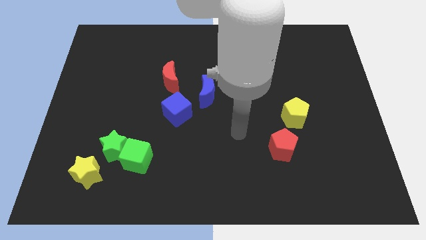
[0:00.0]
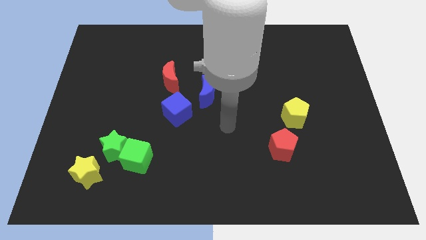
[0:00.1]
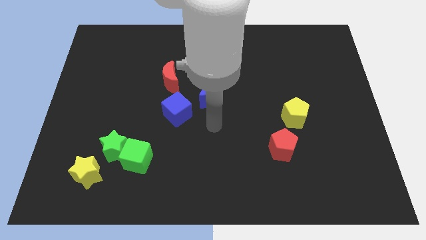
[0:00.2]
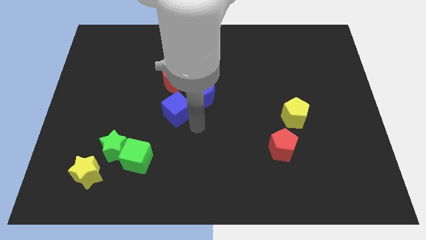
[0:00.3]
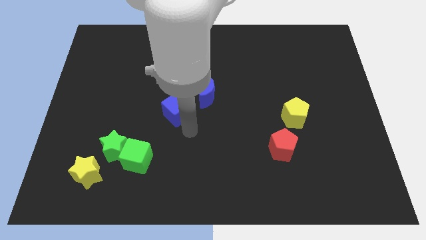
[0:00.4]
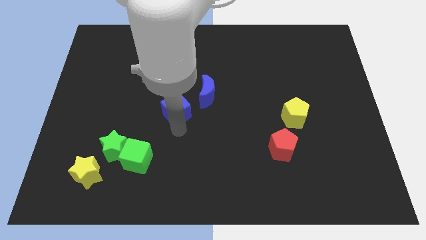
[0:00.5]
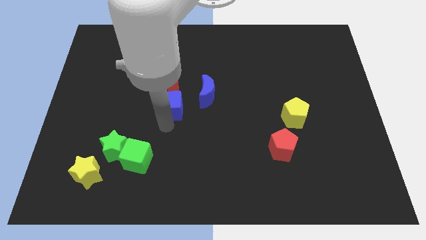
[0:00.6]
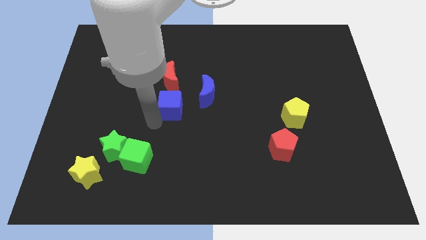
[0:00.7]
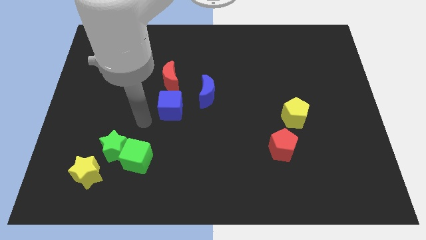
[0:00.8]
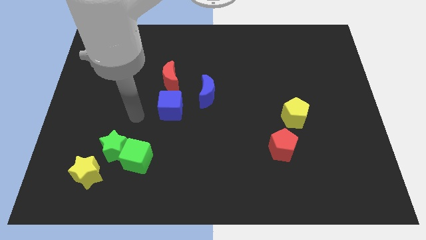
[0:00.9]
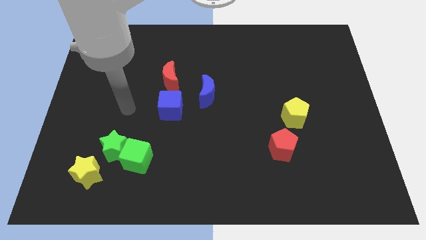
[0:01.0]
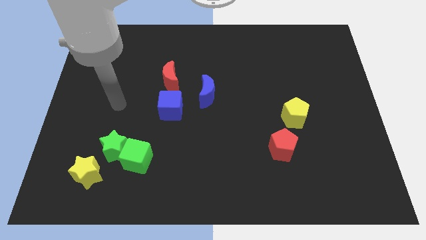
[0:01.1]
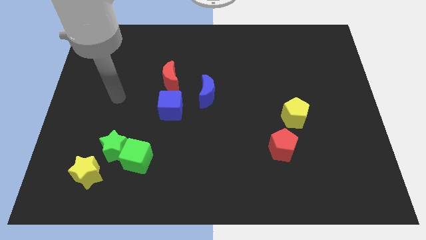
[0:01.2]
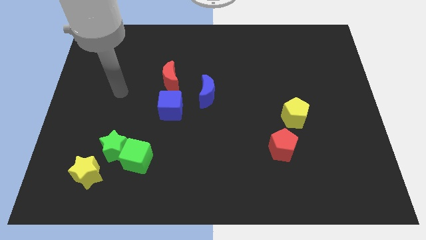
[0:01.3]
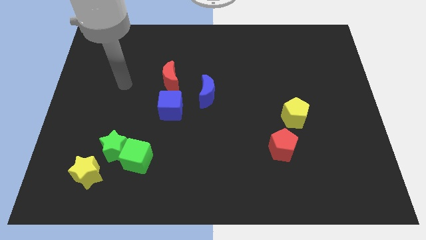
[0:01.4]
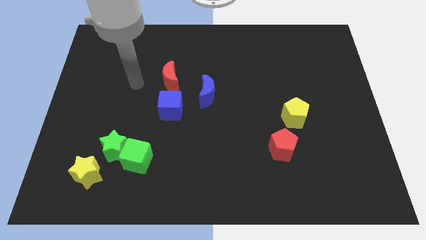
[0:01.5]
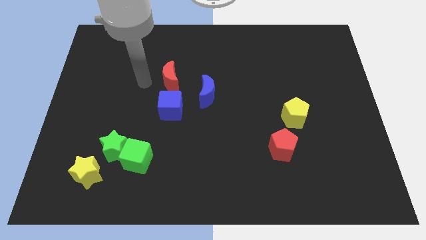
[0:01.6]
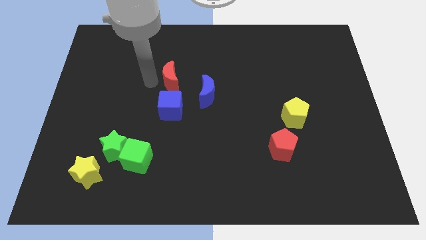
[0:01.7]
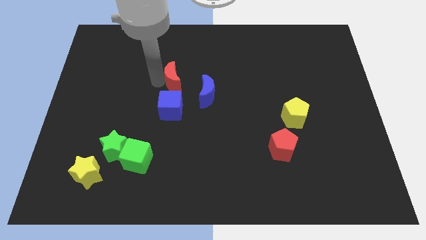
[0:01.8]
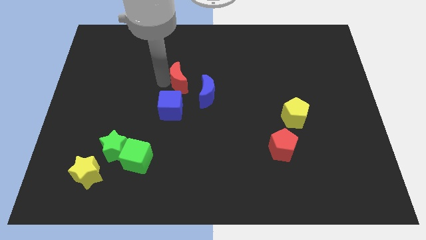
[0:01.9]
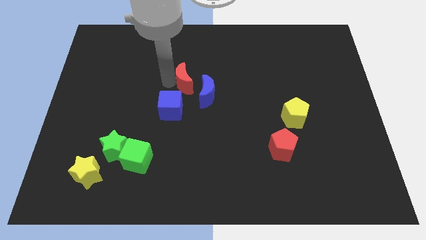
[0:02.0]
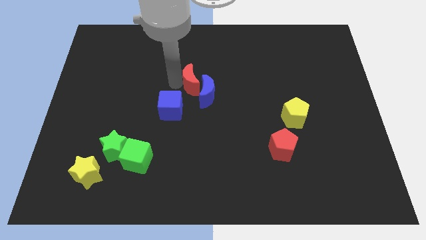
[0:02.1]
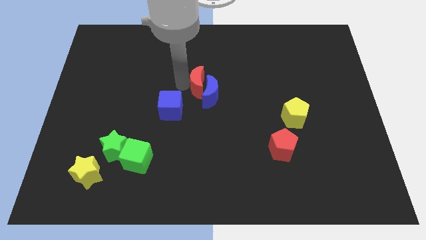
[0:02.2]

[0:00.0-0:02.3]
move the red moon a little right

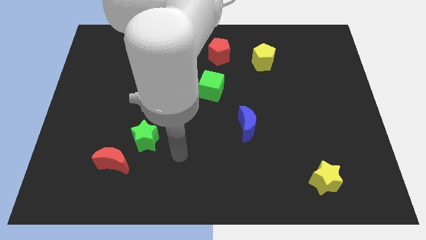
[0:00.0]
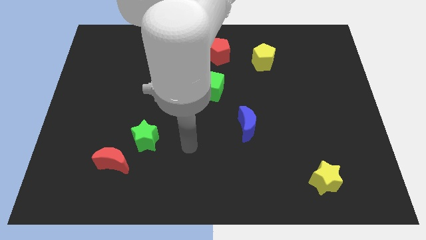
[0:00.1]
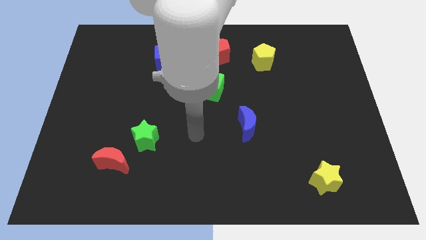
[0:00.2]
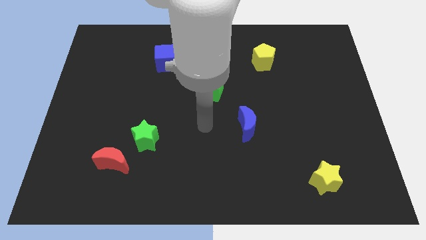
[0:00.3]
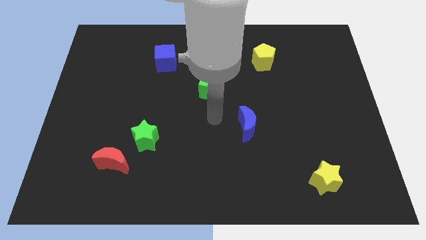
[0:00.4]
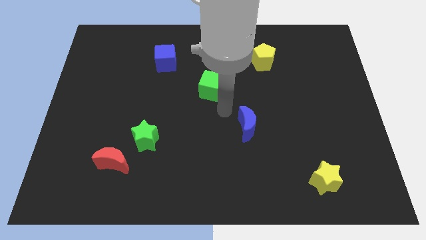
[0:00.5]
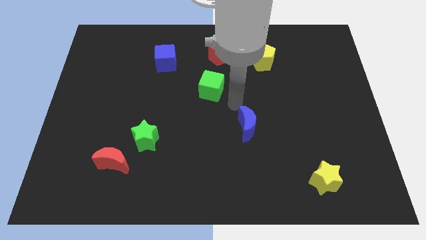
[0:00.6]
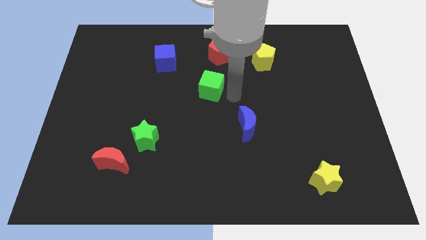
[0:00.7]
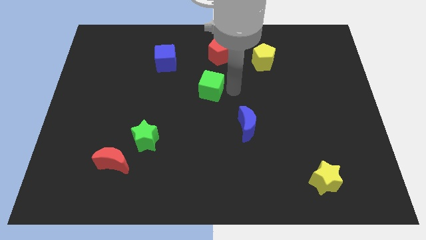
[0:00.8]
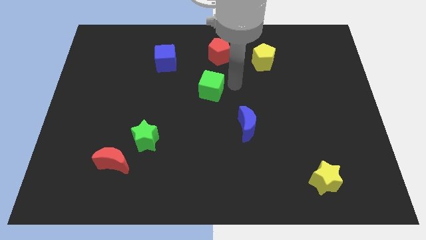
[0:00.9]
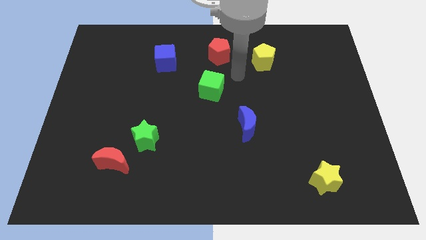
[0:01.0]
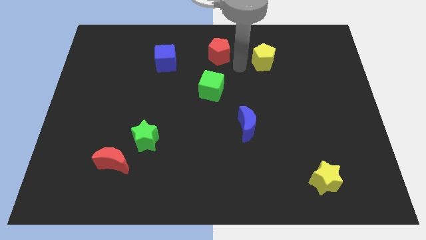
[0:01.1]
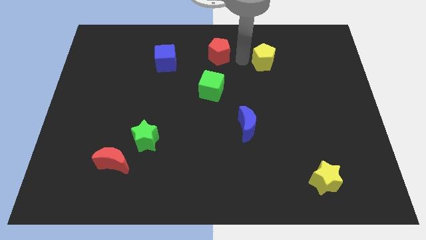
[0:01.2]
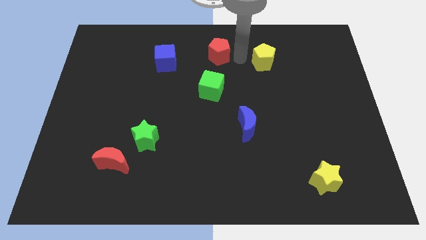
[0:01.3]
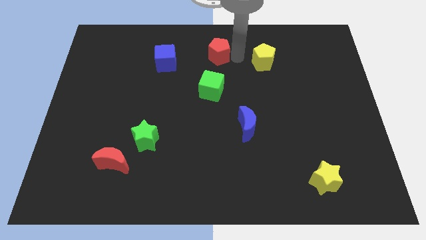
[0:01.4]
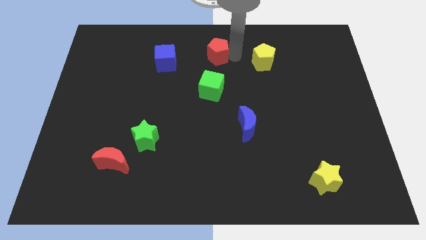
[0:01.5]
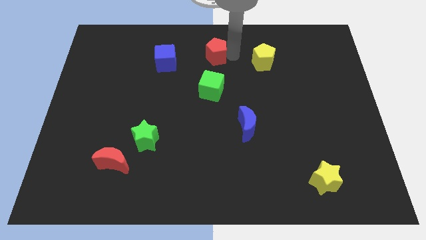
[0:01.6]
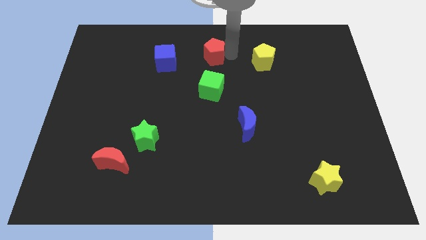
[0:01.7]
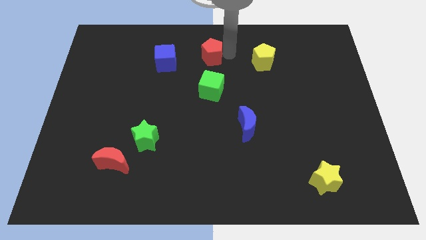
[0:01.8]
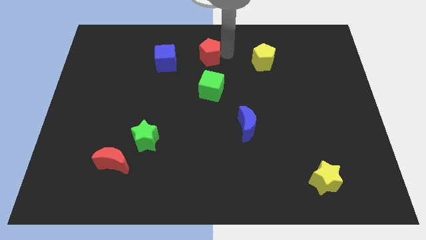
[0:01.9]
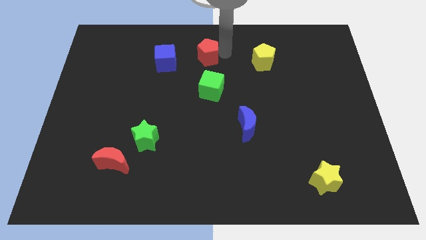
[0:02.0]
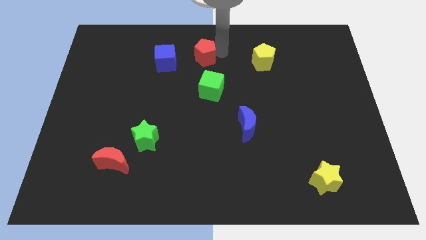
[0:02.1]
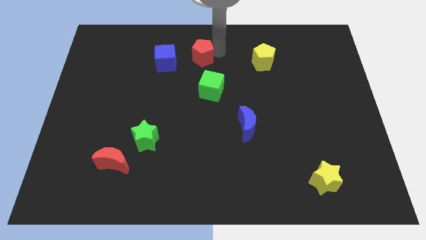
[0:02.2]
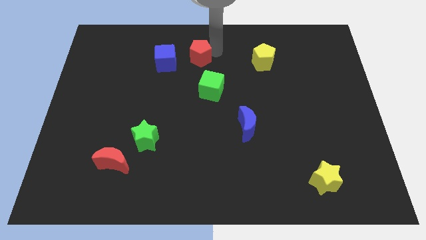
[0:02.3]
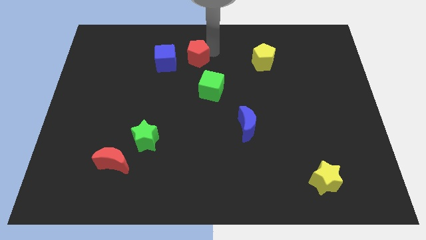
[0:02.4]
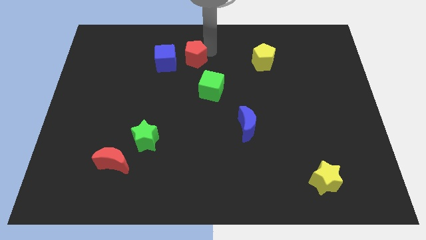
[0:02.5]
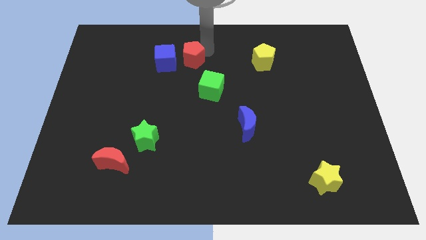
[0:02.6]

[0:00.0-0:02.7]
slide the red pentagon slightly to the left

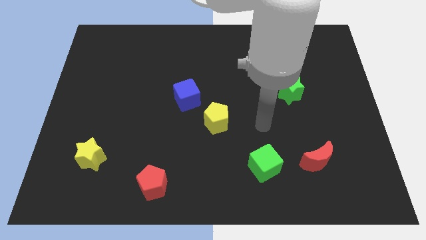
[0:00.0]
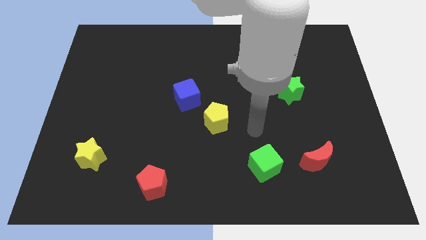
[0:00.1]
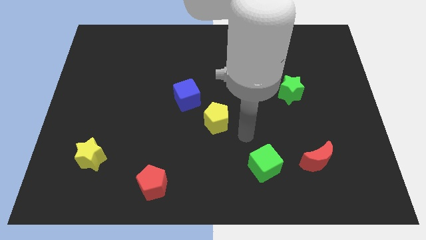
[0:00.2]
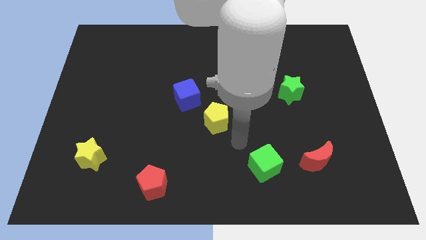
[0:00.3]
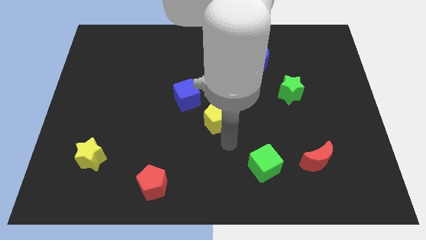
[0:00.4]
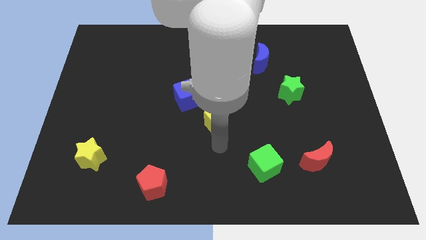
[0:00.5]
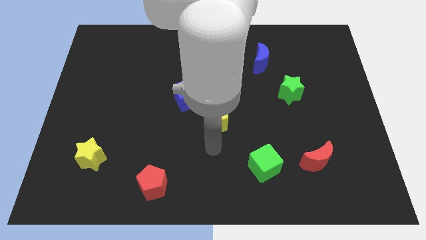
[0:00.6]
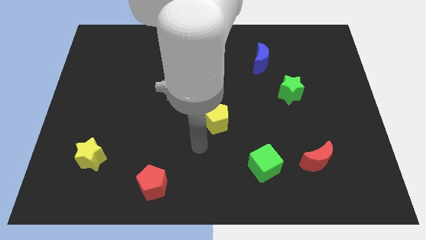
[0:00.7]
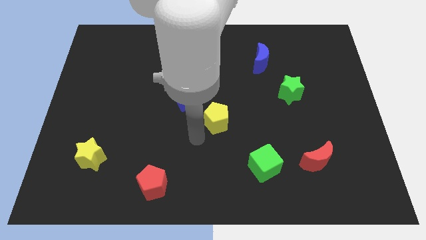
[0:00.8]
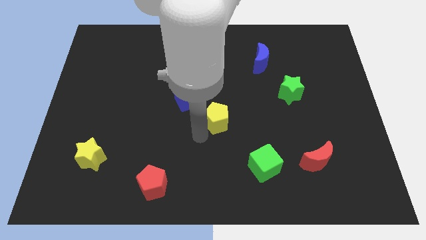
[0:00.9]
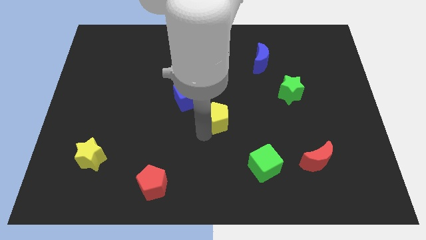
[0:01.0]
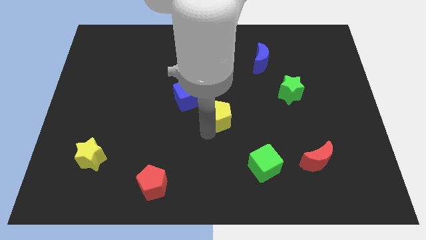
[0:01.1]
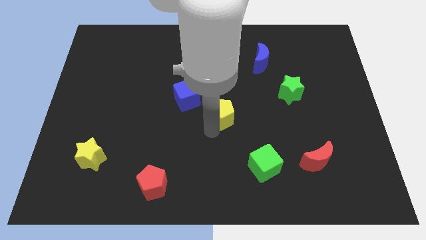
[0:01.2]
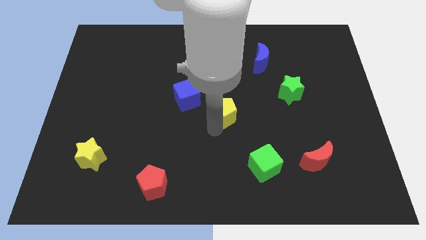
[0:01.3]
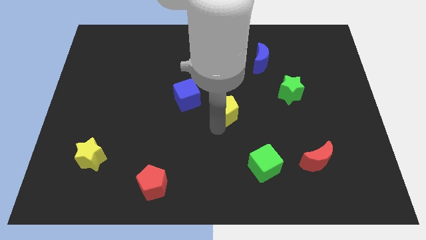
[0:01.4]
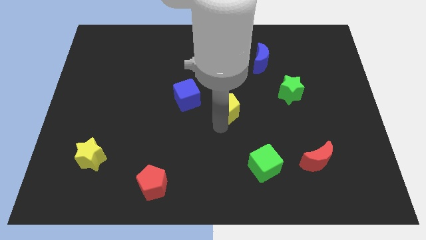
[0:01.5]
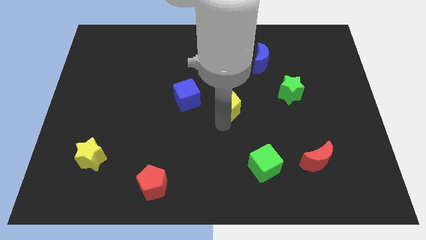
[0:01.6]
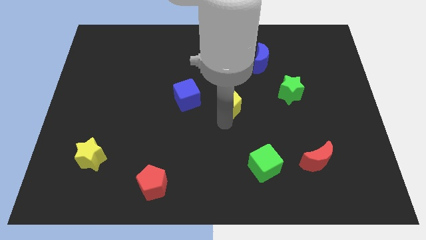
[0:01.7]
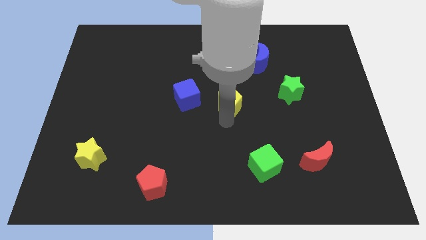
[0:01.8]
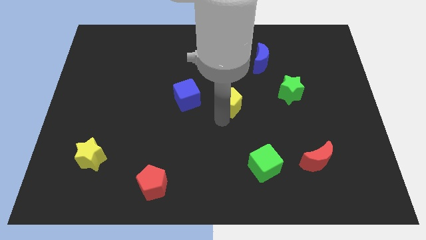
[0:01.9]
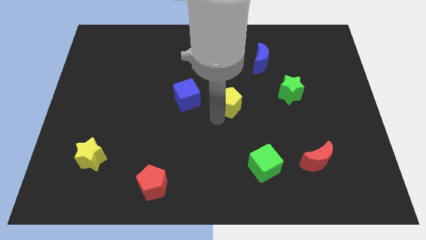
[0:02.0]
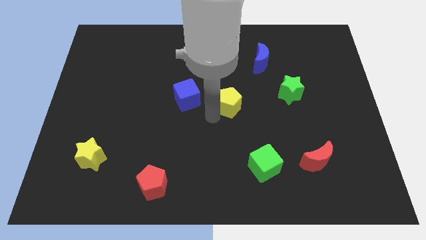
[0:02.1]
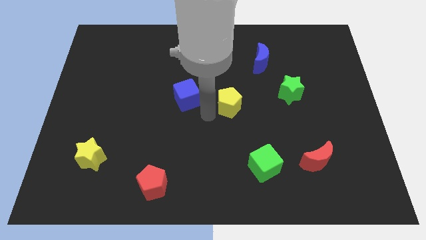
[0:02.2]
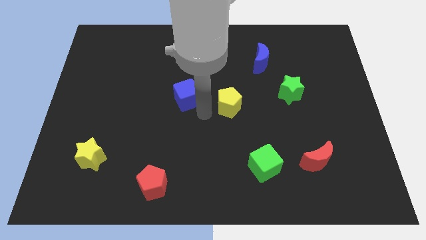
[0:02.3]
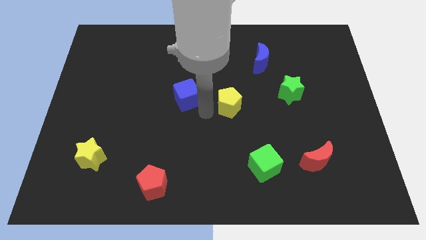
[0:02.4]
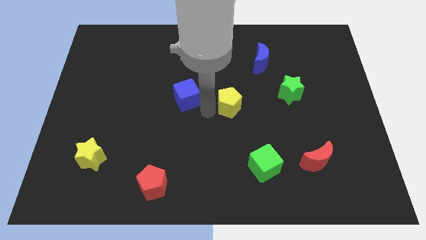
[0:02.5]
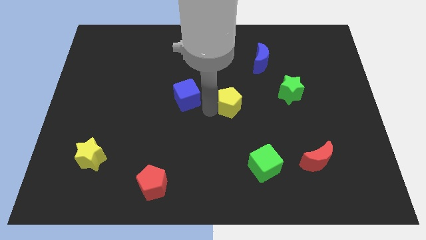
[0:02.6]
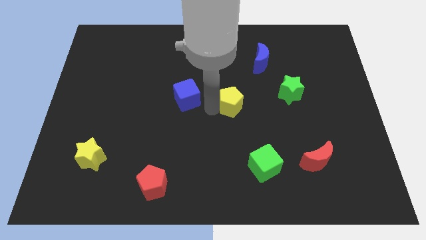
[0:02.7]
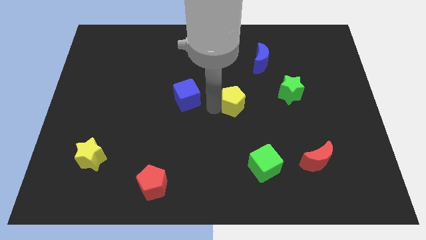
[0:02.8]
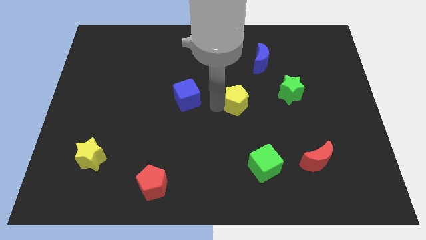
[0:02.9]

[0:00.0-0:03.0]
slightly push the yellow pentagon up and right
